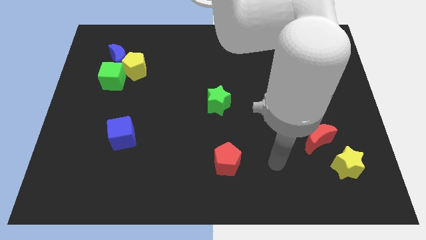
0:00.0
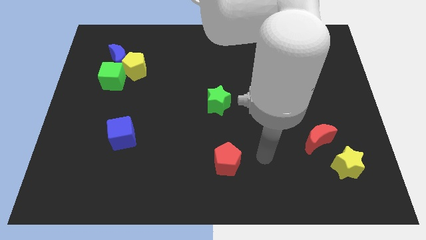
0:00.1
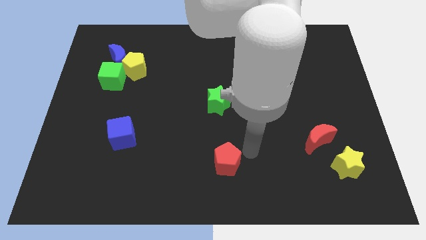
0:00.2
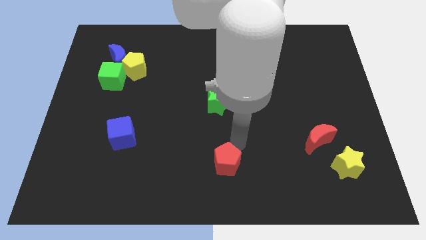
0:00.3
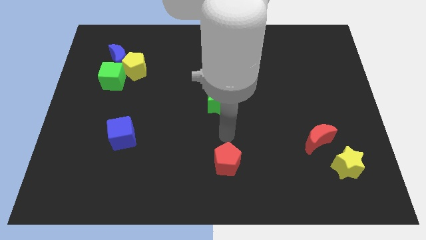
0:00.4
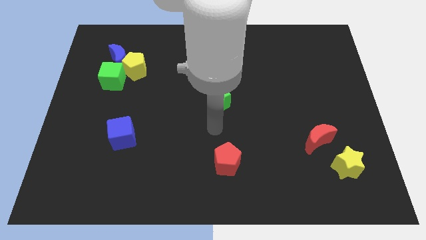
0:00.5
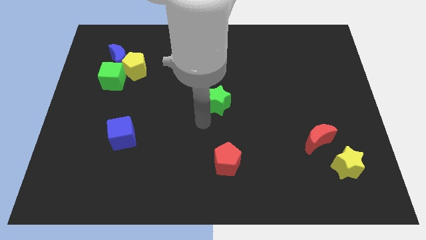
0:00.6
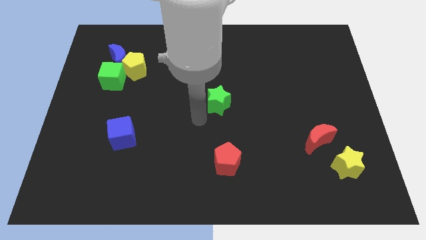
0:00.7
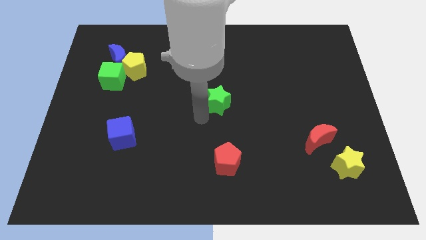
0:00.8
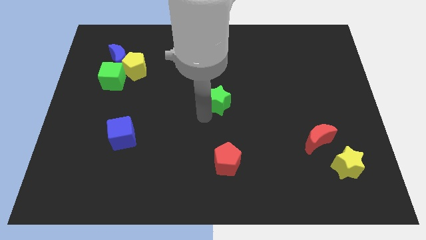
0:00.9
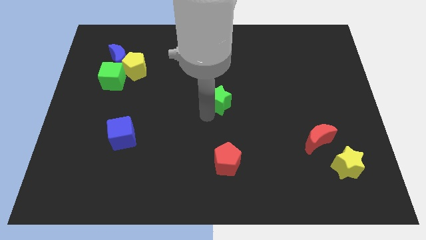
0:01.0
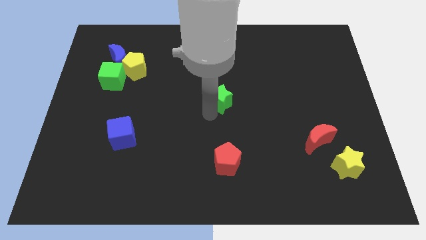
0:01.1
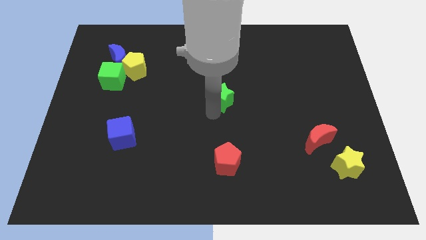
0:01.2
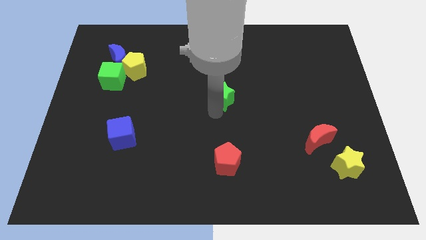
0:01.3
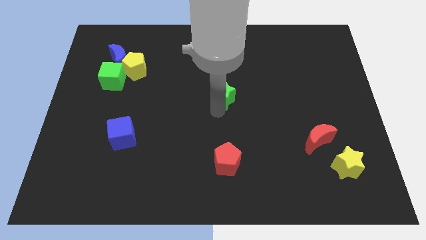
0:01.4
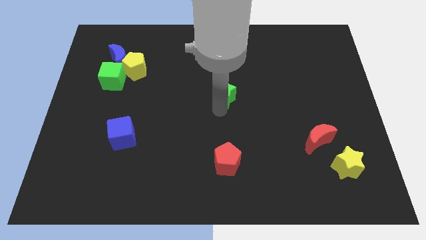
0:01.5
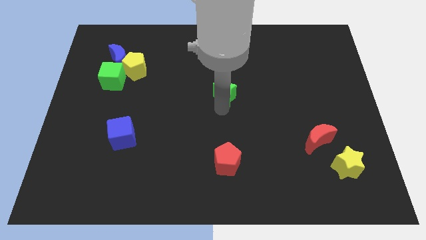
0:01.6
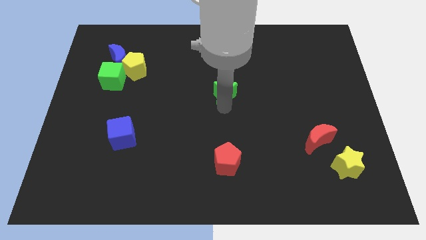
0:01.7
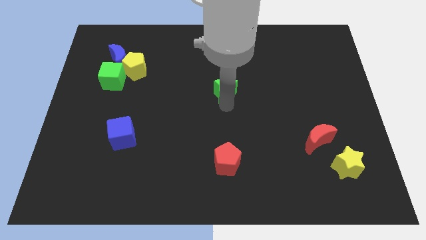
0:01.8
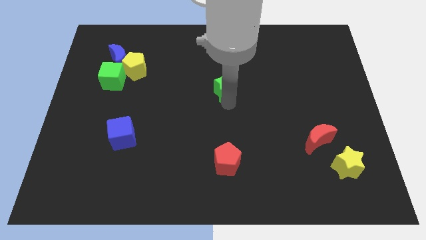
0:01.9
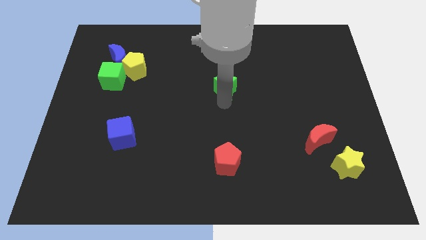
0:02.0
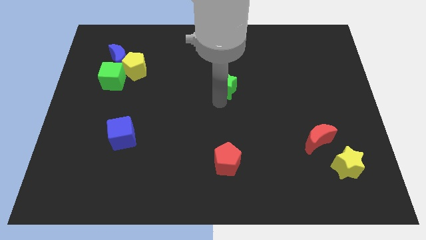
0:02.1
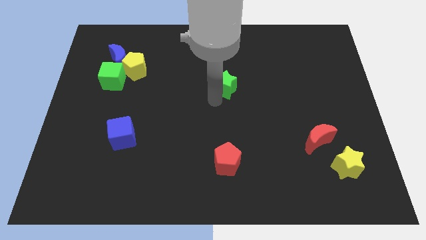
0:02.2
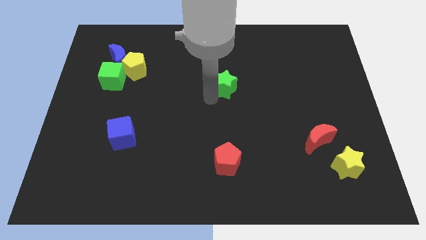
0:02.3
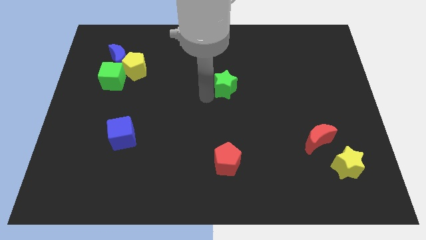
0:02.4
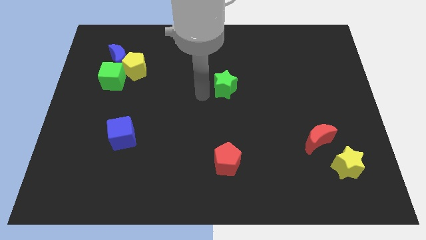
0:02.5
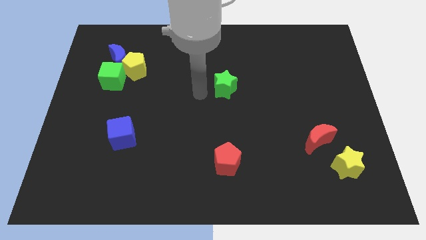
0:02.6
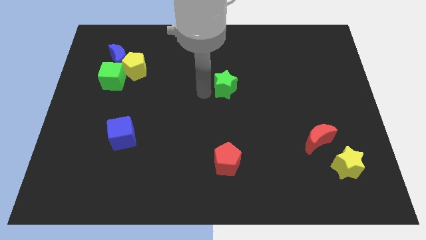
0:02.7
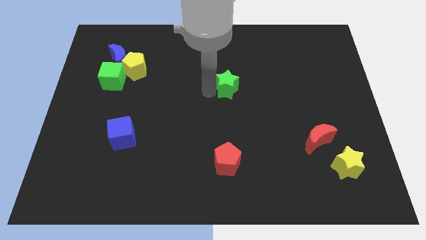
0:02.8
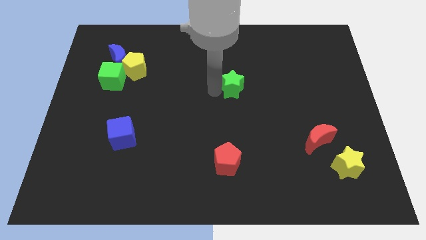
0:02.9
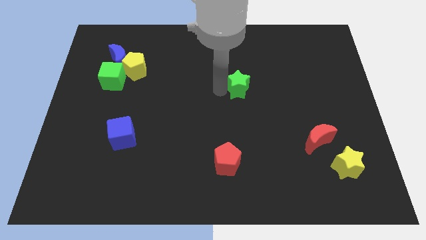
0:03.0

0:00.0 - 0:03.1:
slightly push the green star up and right

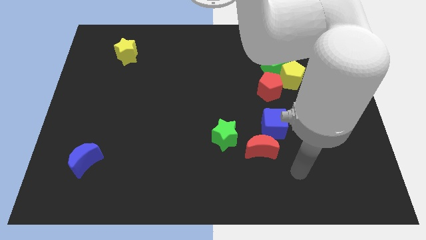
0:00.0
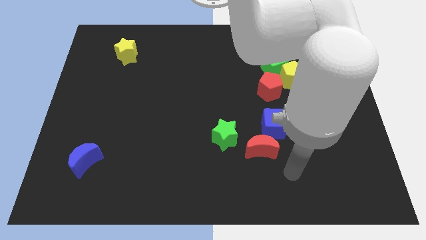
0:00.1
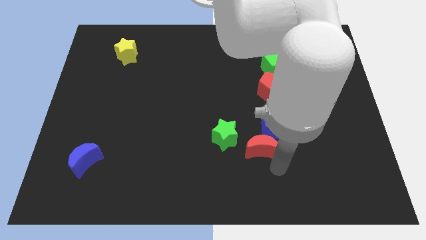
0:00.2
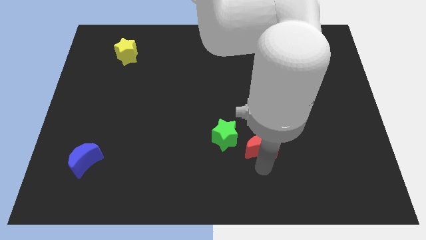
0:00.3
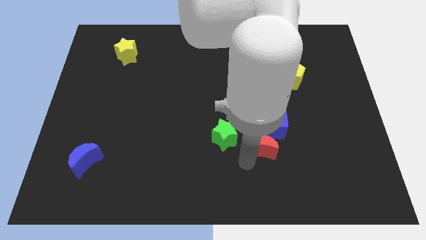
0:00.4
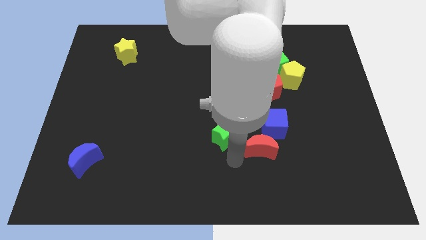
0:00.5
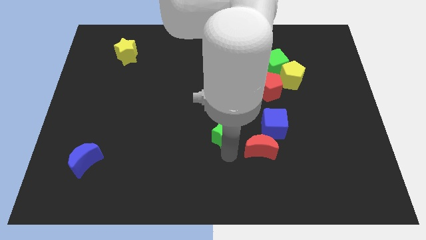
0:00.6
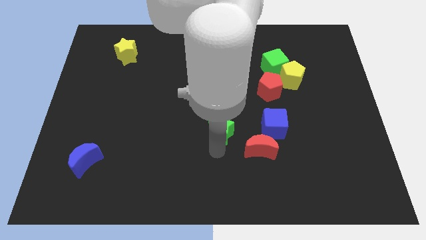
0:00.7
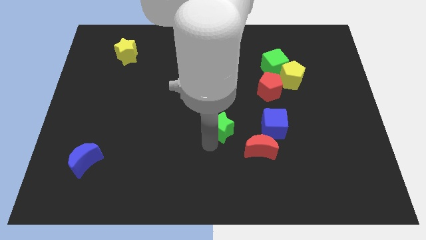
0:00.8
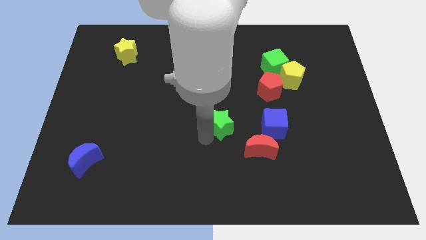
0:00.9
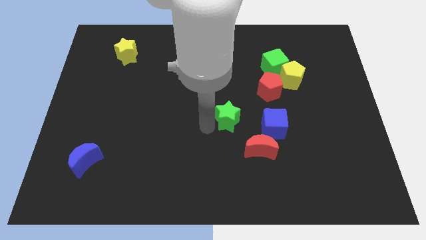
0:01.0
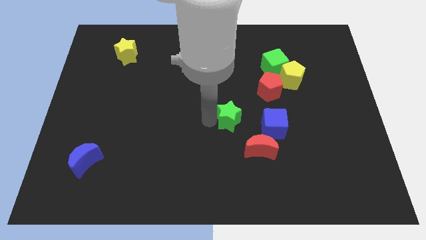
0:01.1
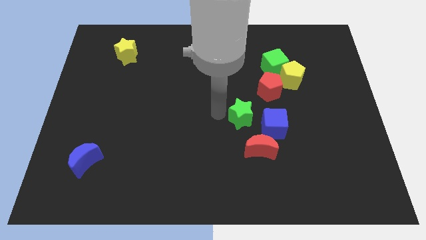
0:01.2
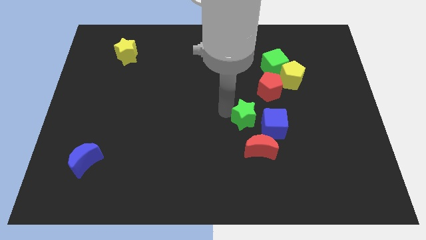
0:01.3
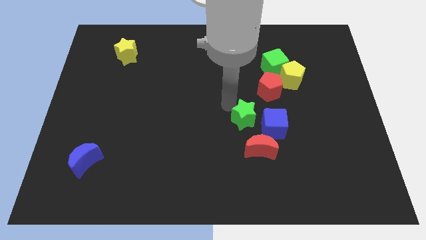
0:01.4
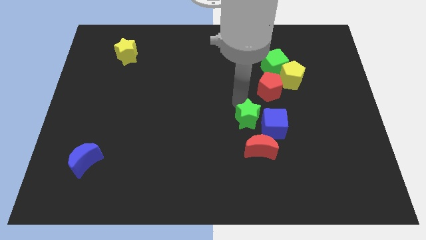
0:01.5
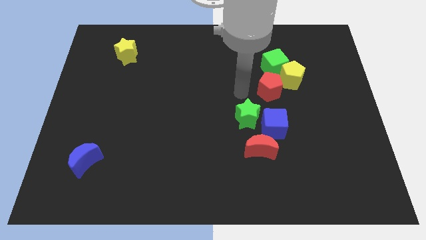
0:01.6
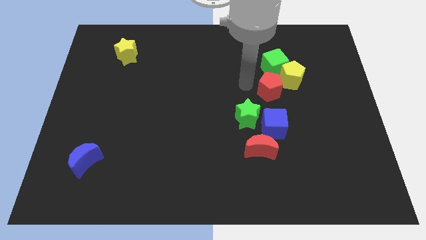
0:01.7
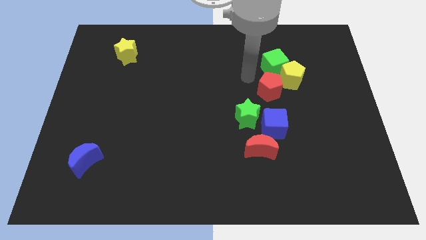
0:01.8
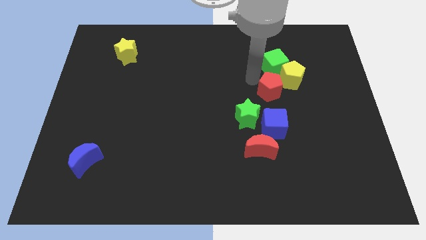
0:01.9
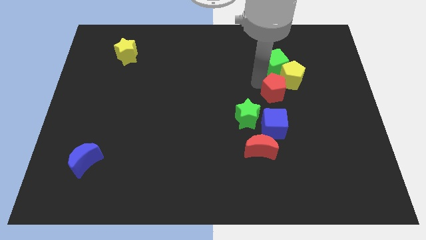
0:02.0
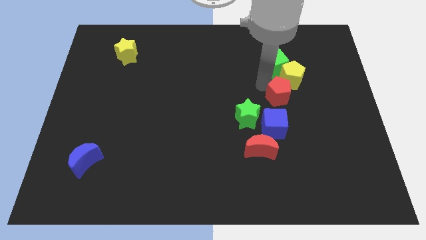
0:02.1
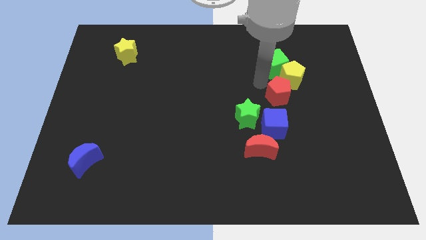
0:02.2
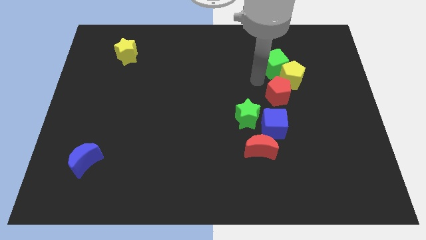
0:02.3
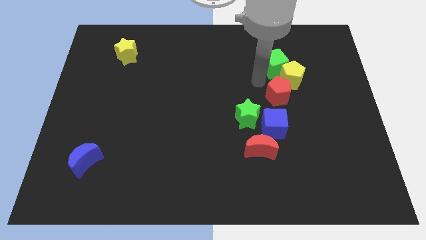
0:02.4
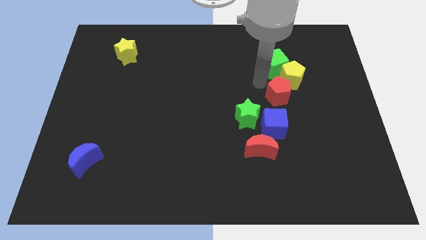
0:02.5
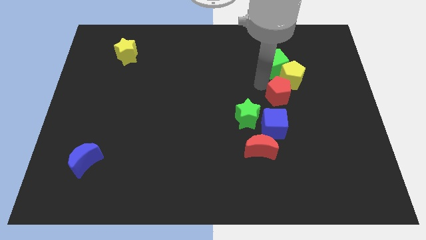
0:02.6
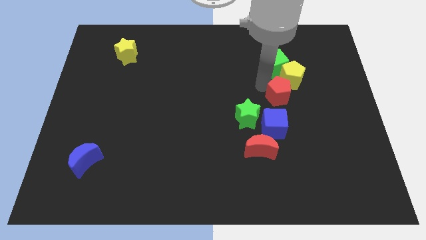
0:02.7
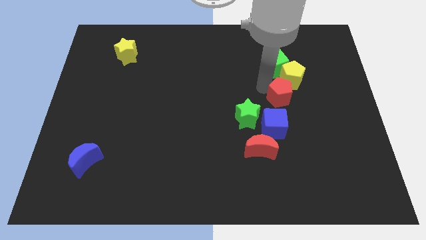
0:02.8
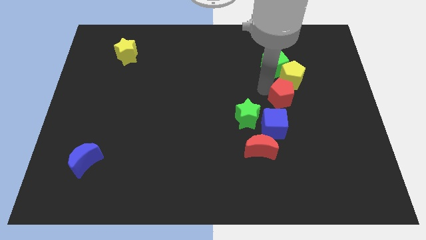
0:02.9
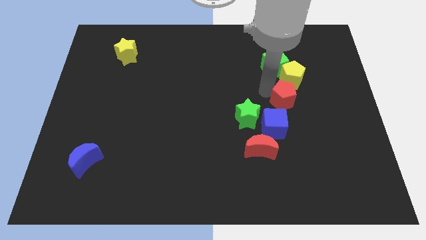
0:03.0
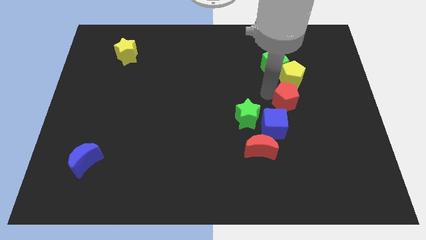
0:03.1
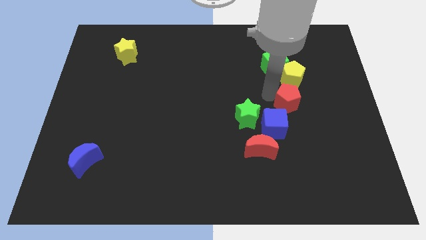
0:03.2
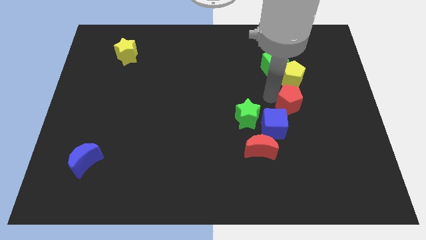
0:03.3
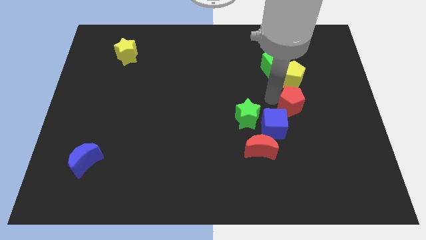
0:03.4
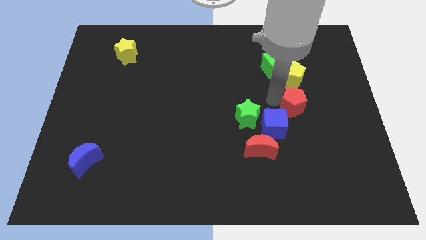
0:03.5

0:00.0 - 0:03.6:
move the red pentagon a little bit down and right

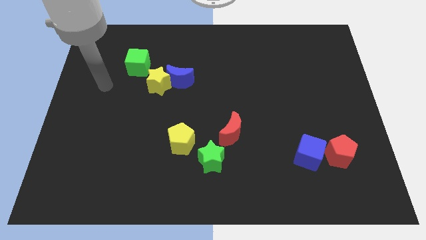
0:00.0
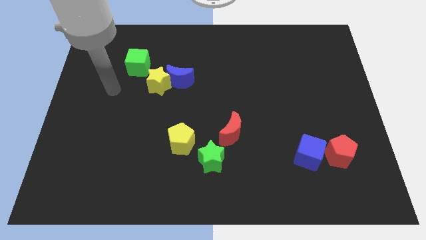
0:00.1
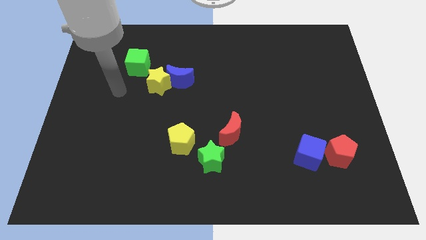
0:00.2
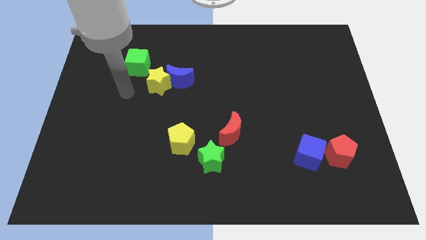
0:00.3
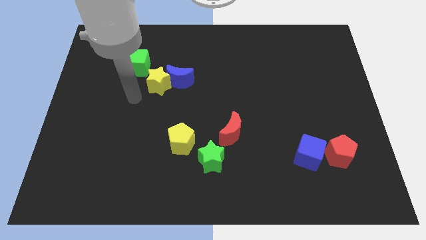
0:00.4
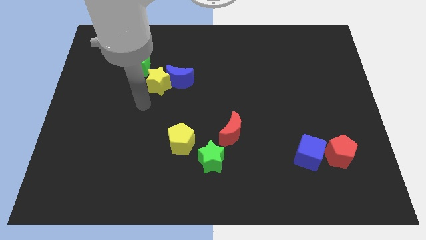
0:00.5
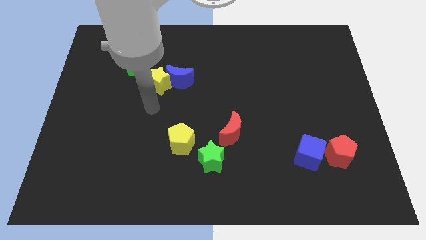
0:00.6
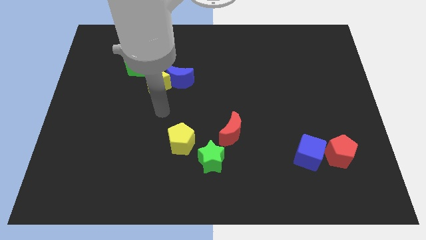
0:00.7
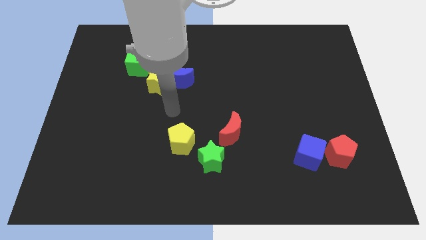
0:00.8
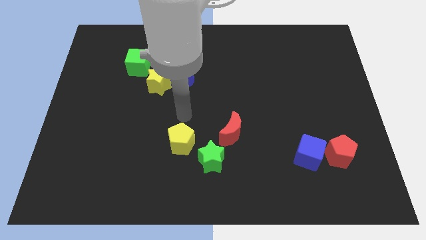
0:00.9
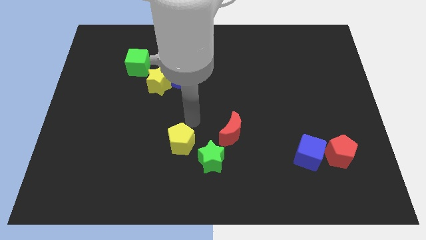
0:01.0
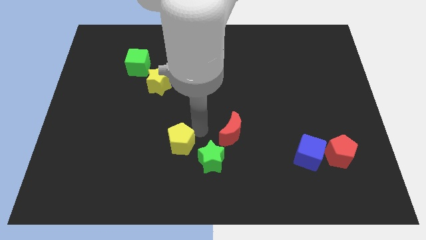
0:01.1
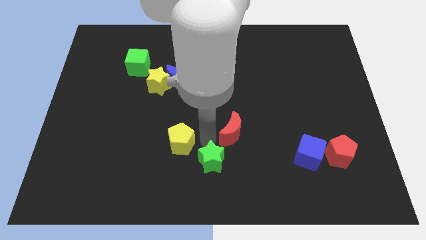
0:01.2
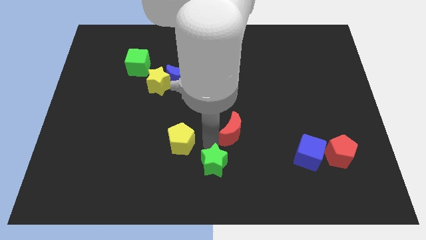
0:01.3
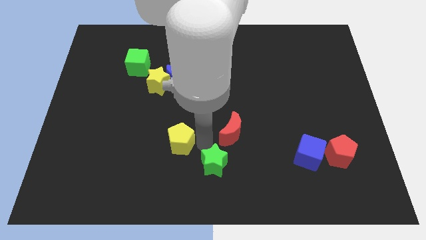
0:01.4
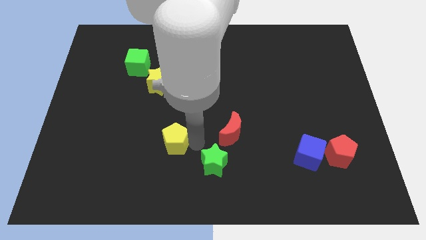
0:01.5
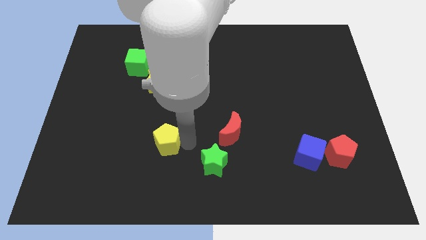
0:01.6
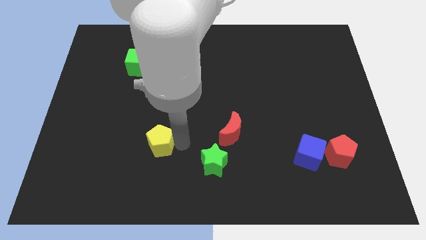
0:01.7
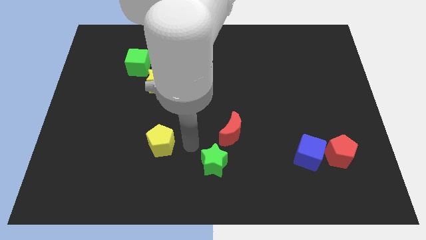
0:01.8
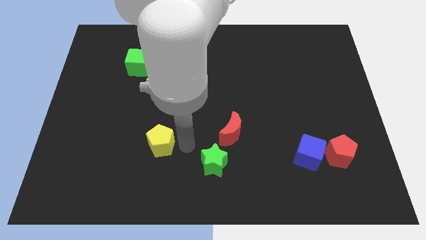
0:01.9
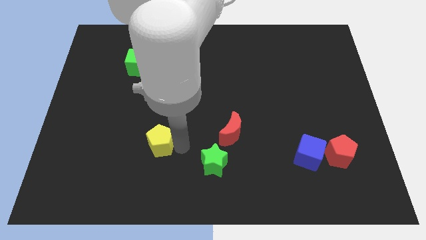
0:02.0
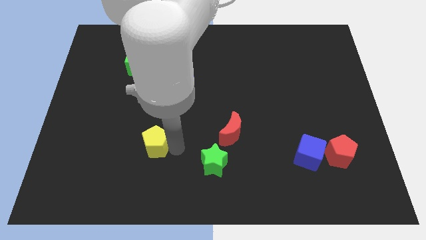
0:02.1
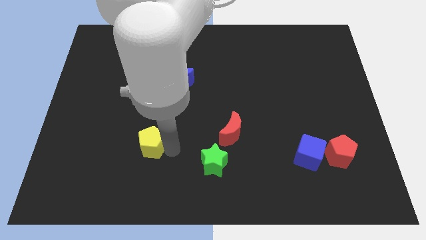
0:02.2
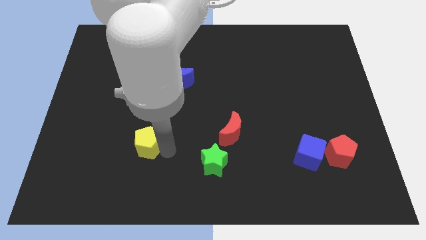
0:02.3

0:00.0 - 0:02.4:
move the yellow pentagon to the left somewhat
